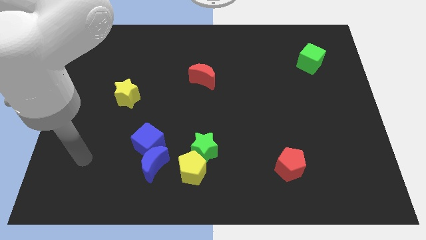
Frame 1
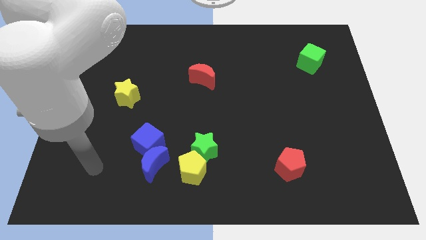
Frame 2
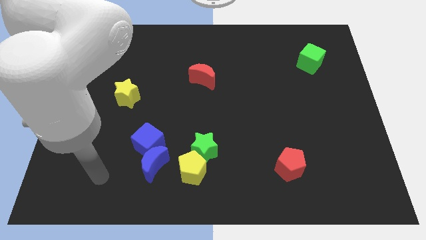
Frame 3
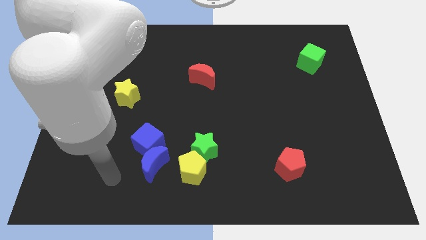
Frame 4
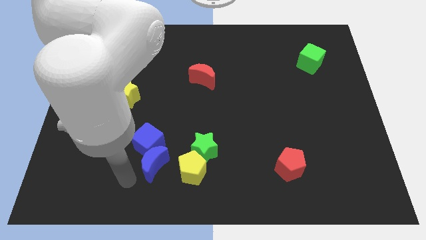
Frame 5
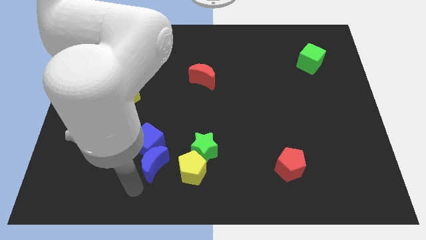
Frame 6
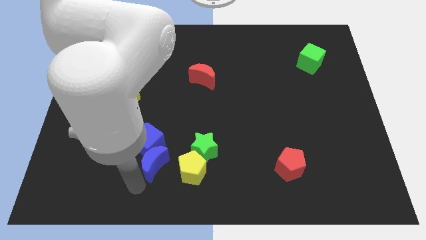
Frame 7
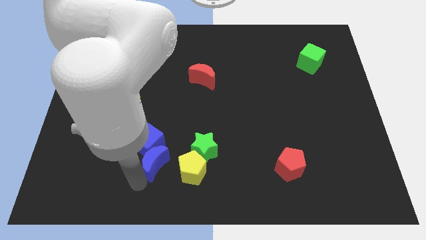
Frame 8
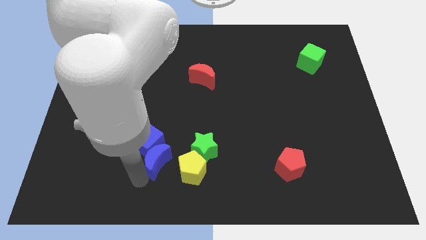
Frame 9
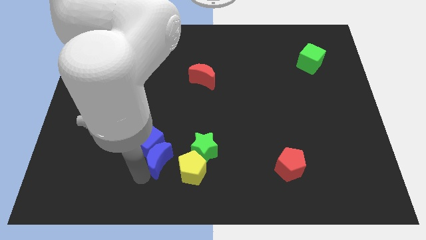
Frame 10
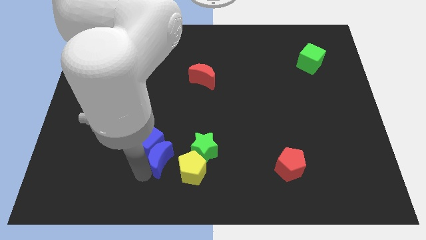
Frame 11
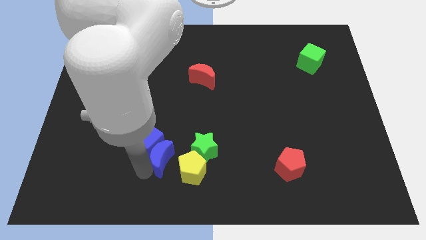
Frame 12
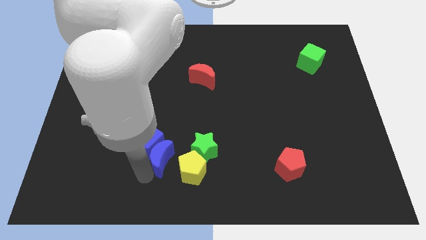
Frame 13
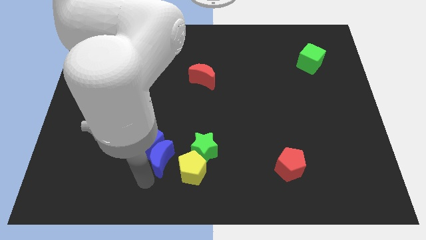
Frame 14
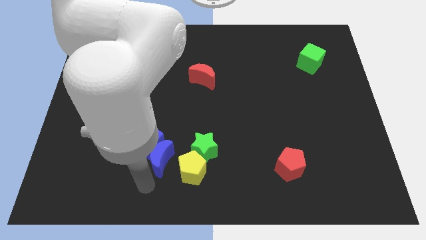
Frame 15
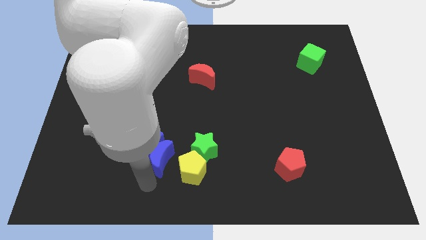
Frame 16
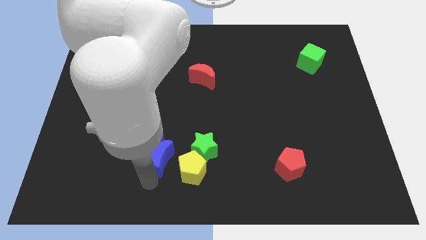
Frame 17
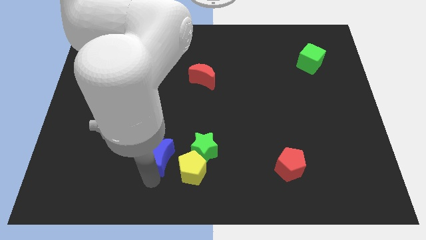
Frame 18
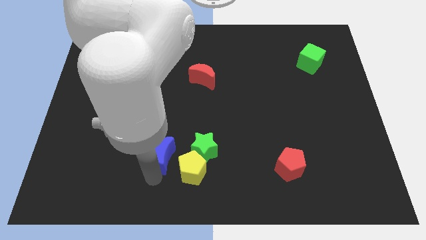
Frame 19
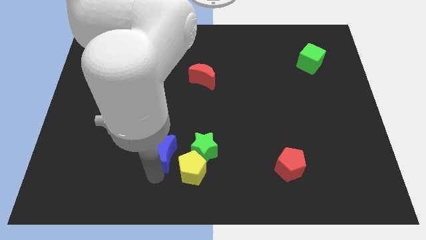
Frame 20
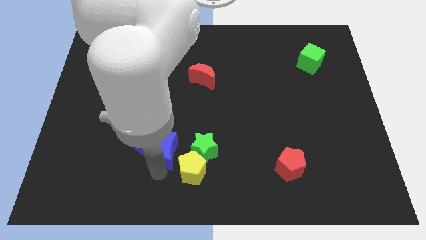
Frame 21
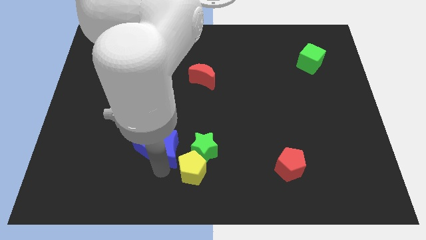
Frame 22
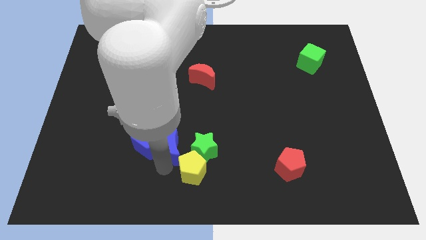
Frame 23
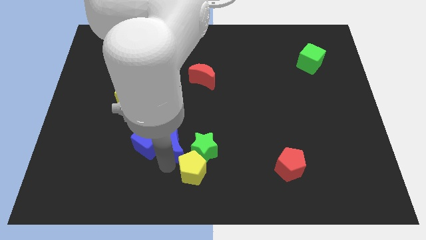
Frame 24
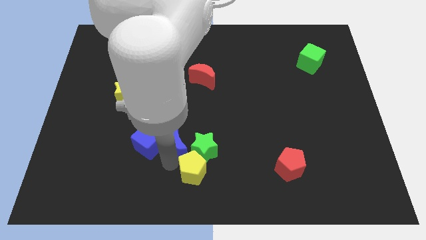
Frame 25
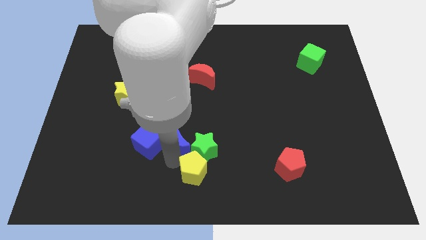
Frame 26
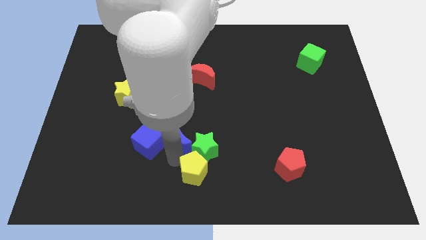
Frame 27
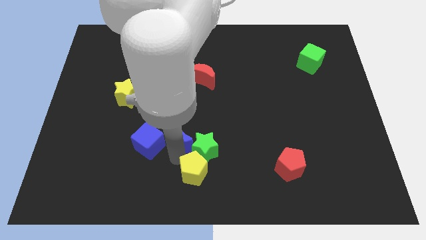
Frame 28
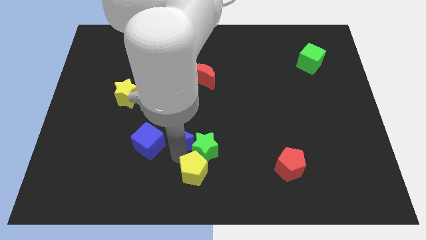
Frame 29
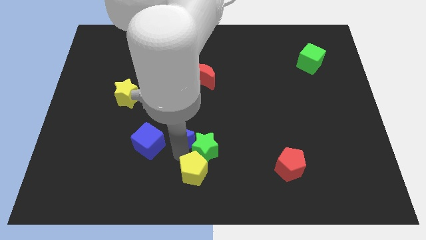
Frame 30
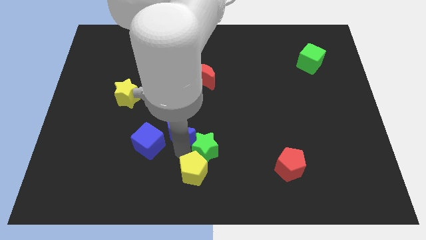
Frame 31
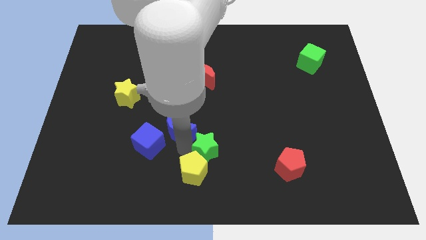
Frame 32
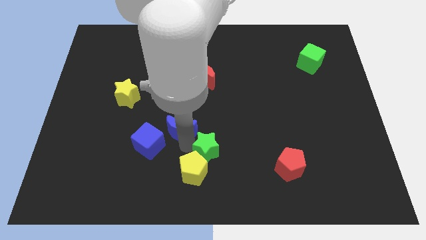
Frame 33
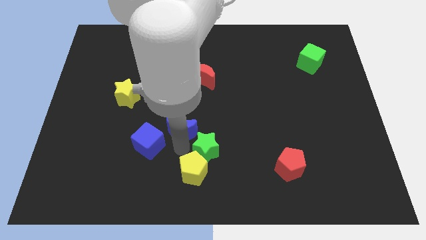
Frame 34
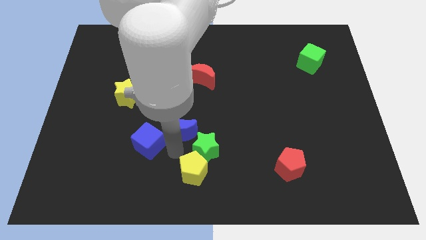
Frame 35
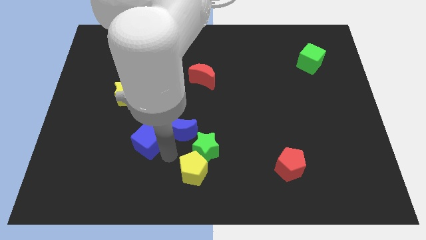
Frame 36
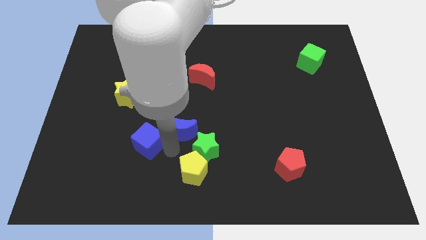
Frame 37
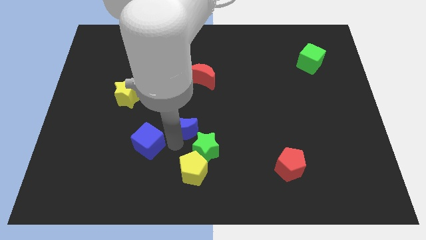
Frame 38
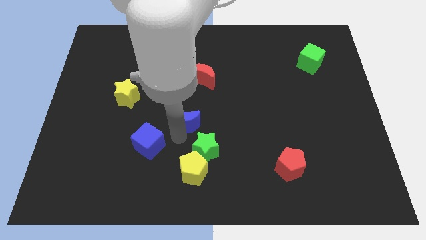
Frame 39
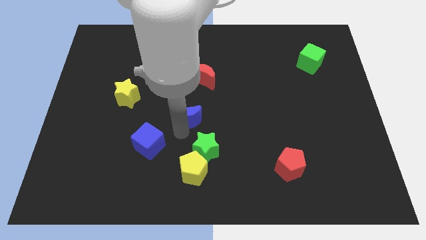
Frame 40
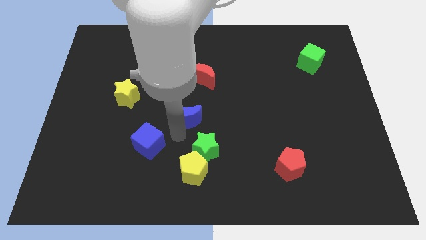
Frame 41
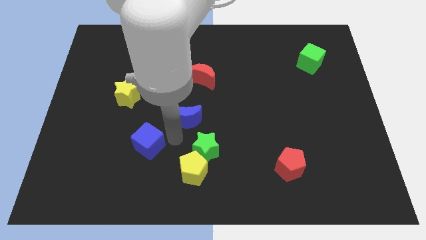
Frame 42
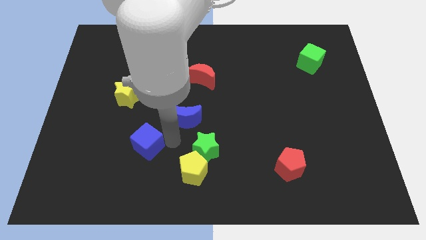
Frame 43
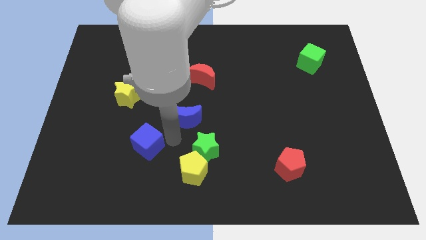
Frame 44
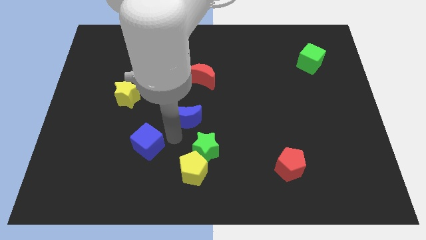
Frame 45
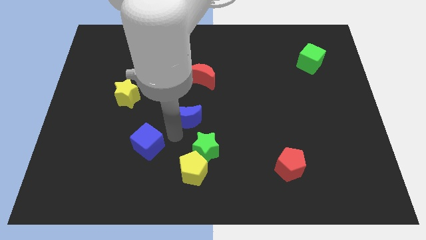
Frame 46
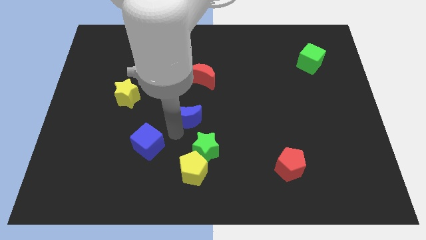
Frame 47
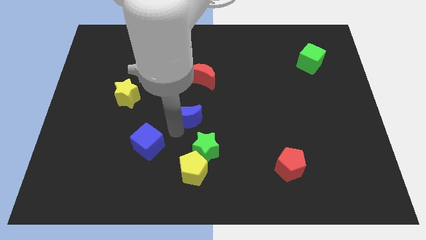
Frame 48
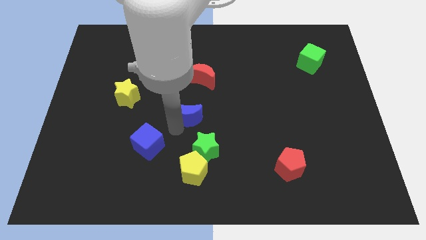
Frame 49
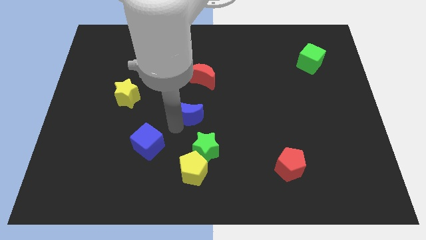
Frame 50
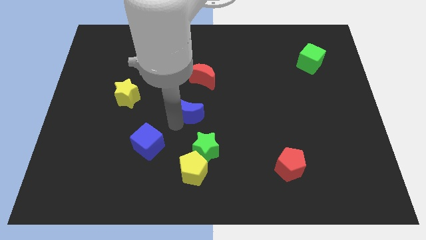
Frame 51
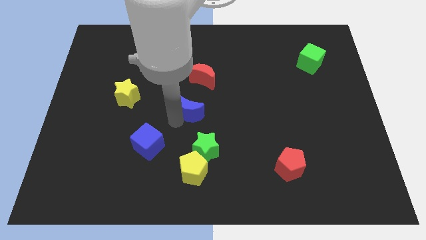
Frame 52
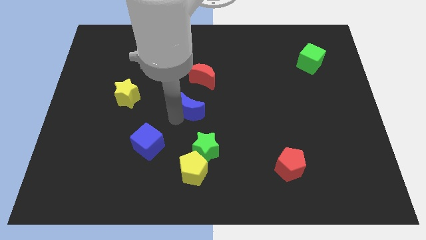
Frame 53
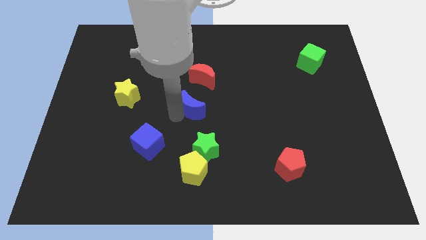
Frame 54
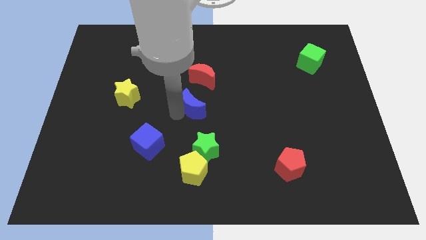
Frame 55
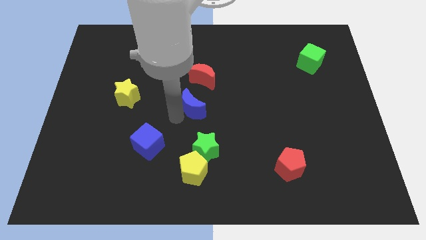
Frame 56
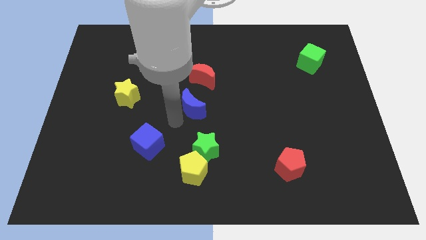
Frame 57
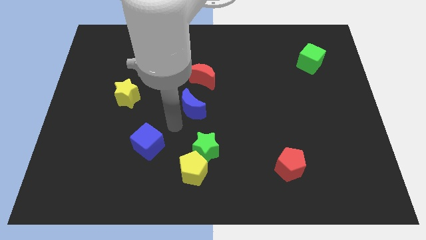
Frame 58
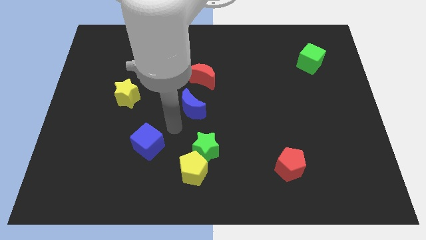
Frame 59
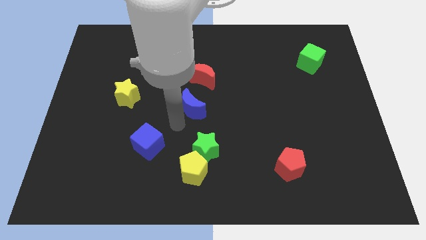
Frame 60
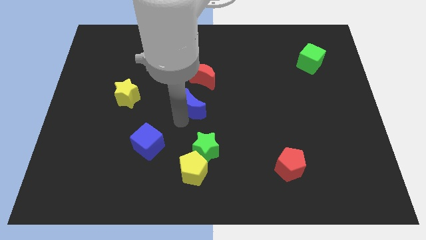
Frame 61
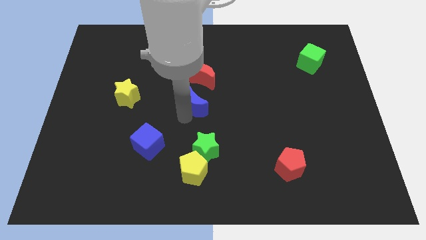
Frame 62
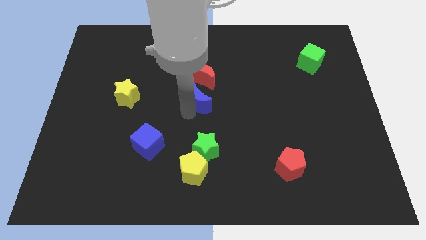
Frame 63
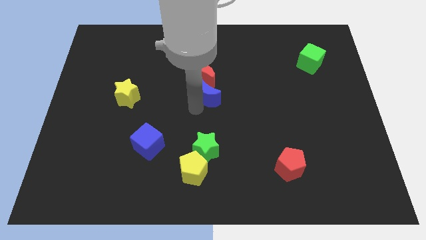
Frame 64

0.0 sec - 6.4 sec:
put the blue moon close to the red moon

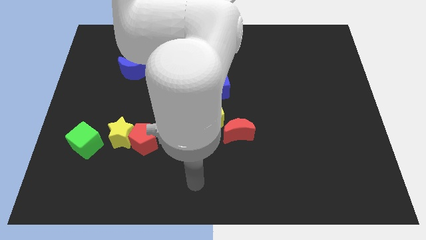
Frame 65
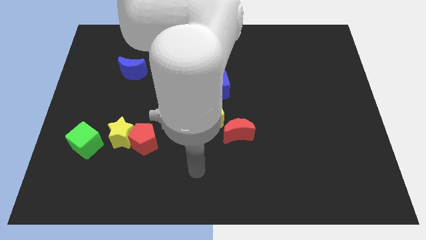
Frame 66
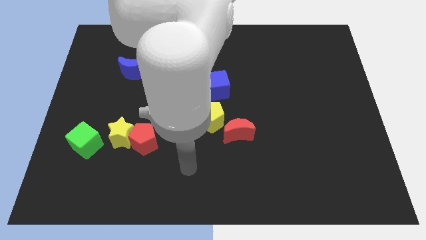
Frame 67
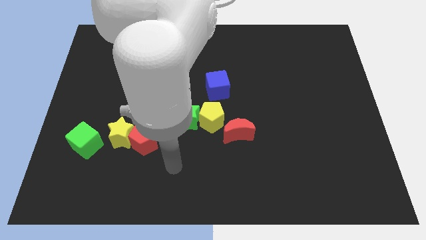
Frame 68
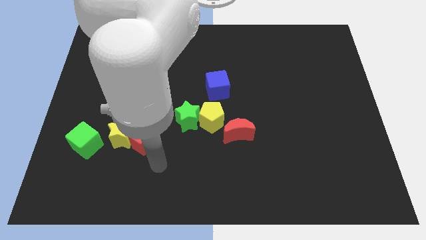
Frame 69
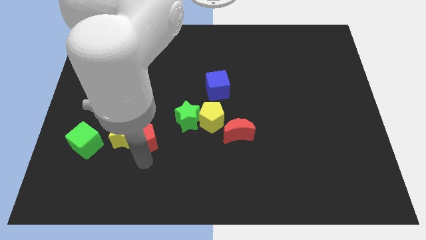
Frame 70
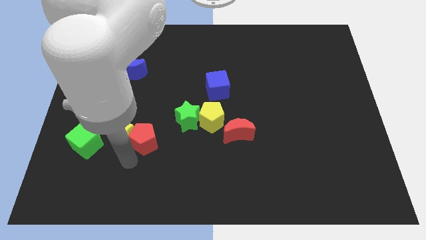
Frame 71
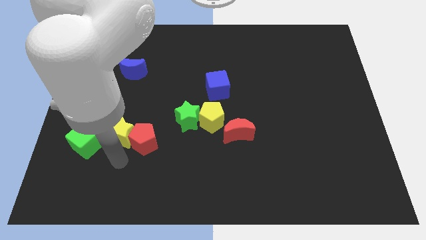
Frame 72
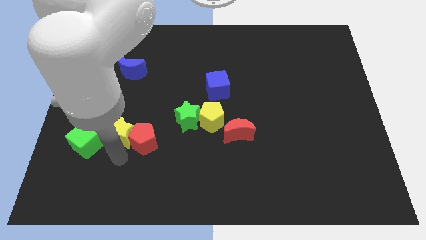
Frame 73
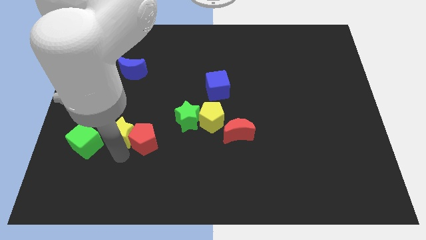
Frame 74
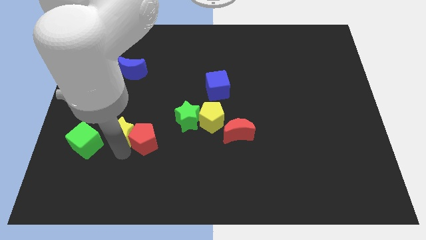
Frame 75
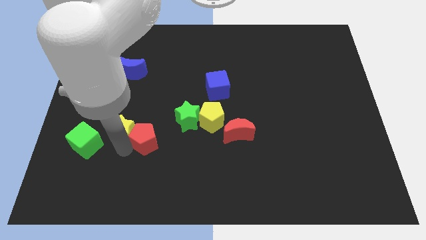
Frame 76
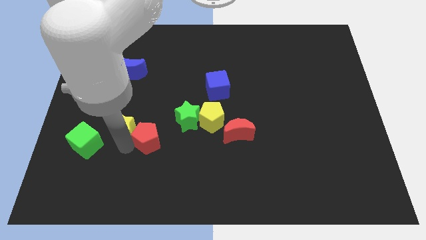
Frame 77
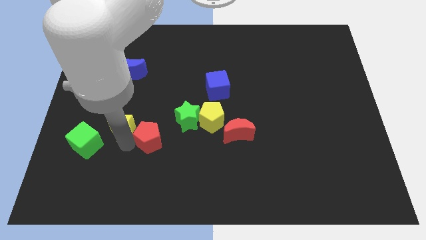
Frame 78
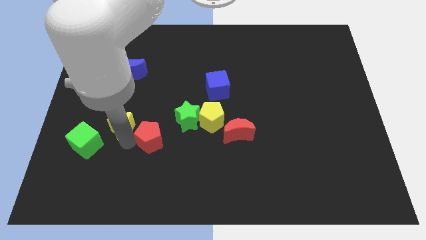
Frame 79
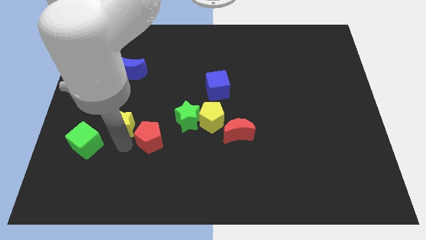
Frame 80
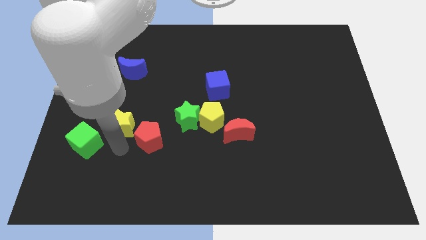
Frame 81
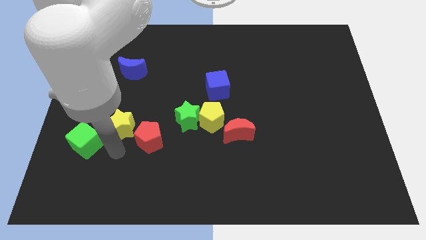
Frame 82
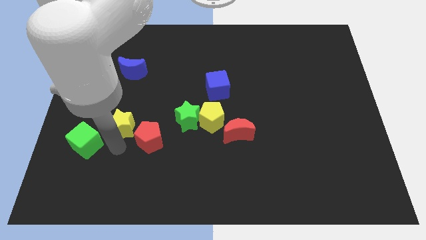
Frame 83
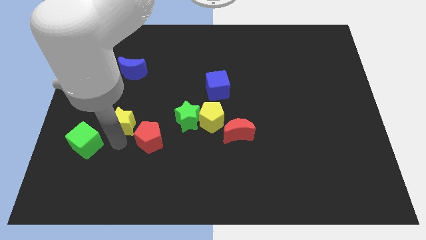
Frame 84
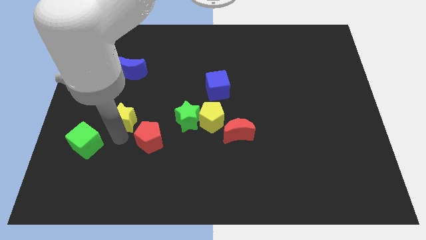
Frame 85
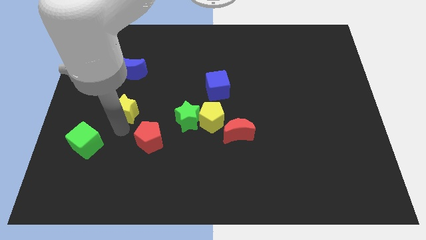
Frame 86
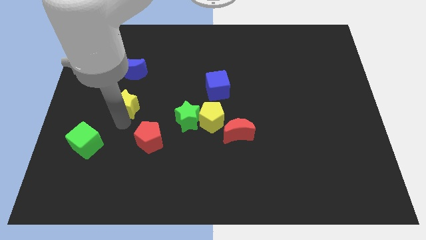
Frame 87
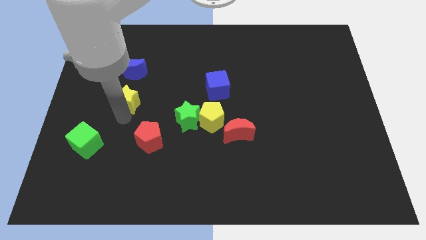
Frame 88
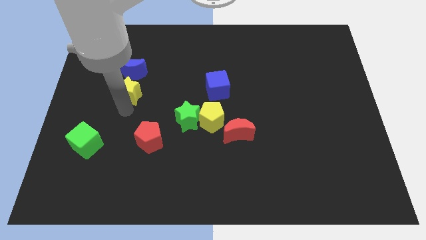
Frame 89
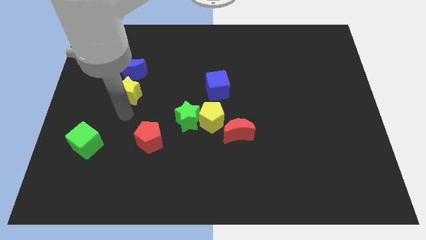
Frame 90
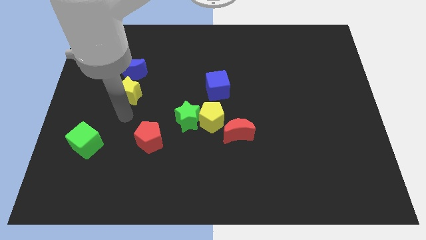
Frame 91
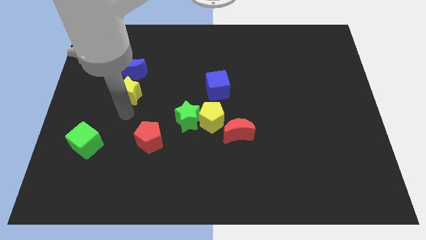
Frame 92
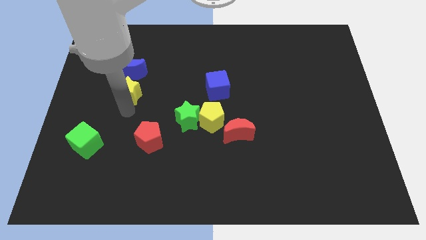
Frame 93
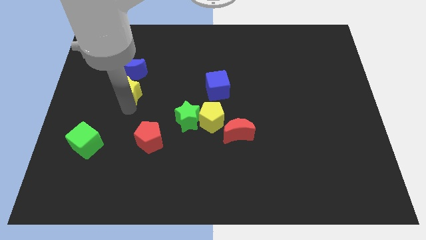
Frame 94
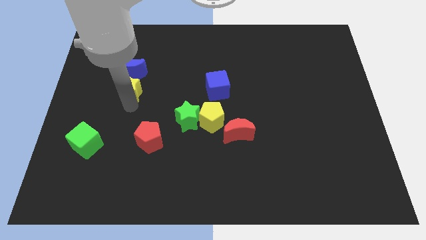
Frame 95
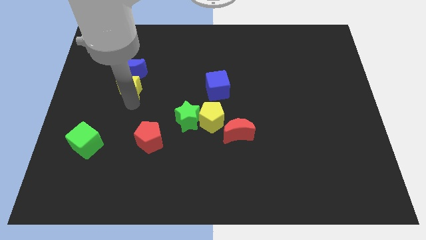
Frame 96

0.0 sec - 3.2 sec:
slide the yellow star next to the blue moon
